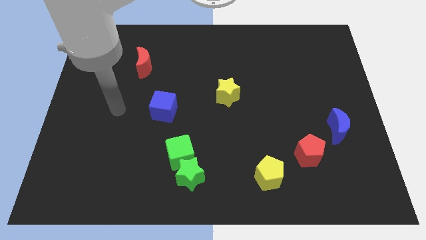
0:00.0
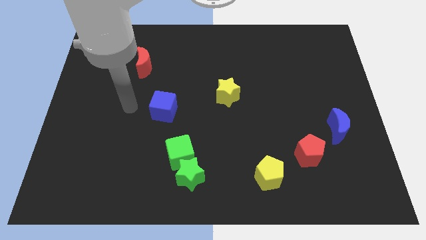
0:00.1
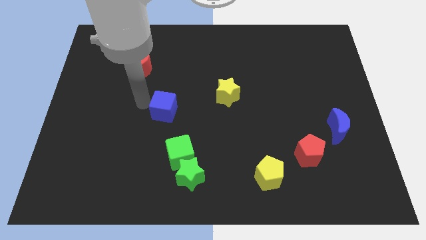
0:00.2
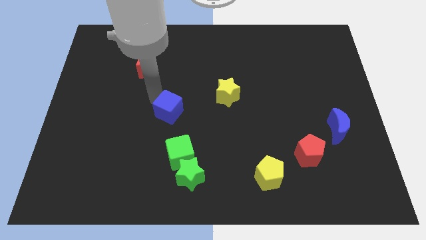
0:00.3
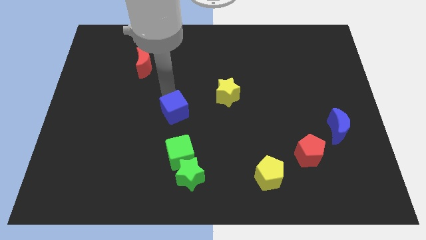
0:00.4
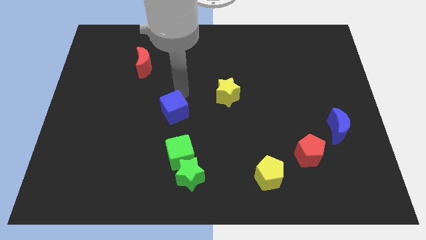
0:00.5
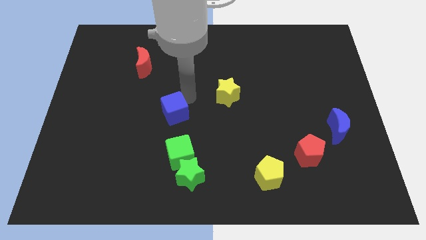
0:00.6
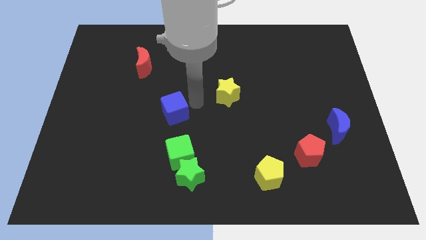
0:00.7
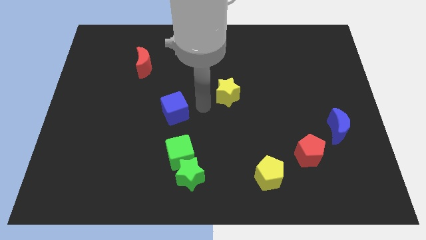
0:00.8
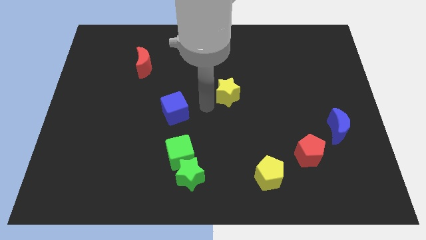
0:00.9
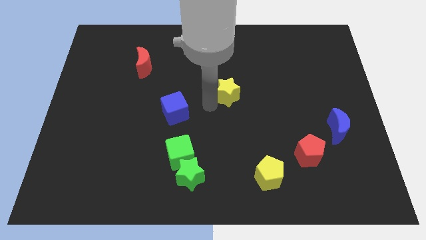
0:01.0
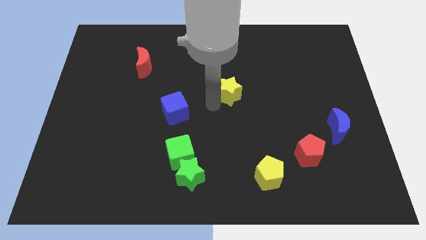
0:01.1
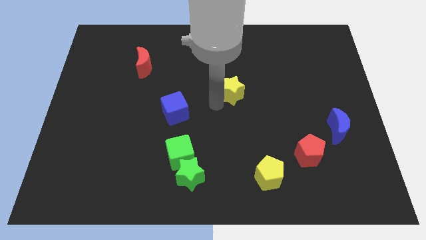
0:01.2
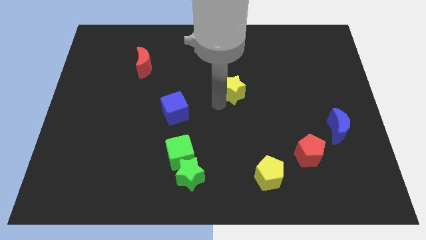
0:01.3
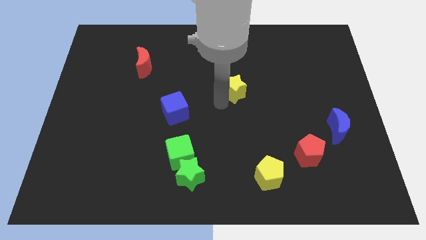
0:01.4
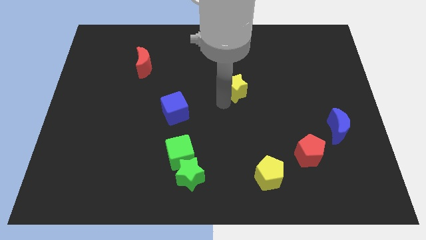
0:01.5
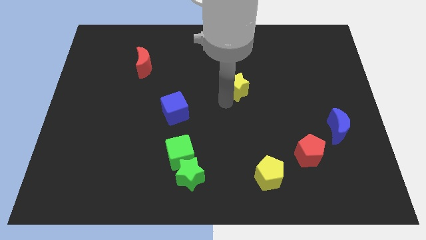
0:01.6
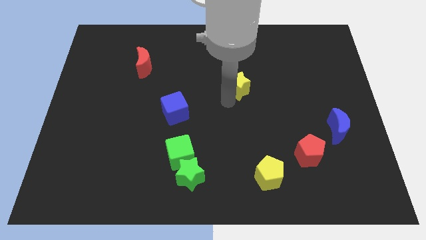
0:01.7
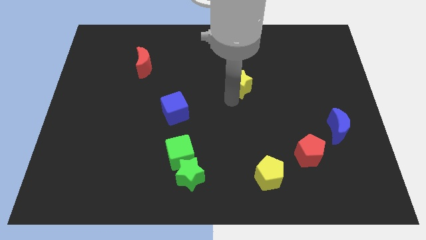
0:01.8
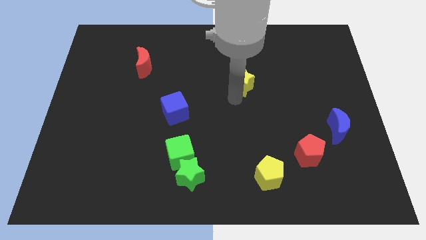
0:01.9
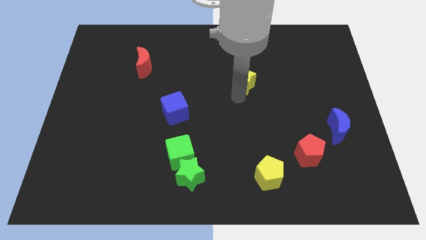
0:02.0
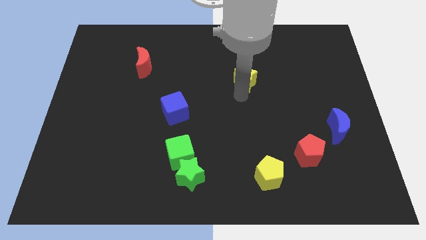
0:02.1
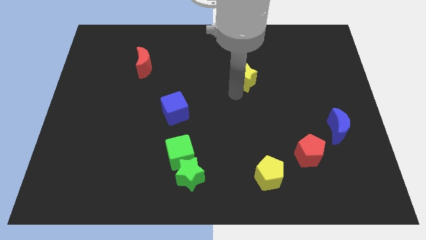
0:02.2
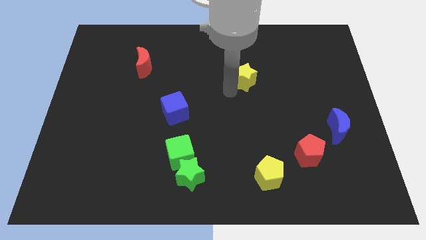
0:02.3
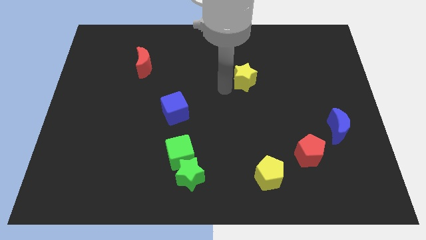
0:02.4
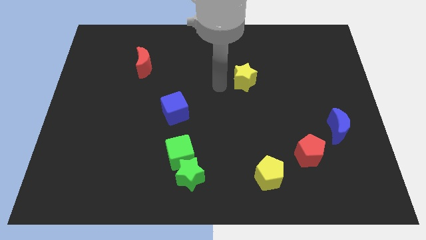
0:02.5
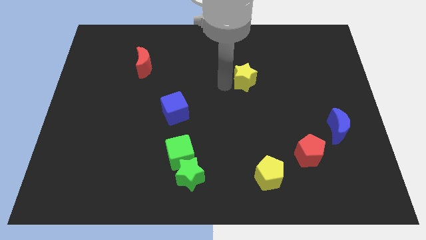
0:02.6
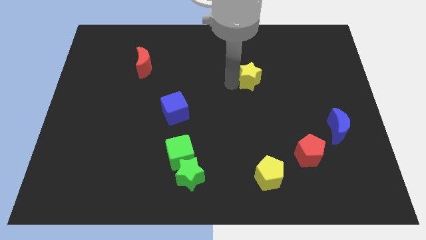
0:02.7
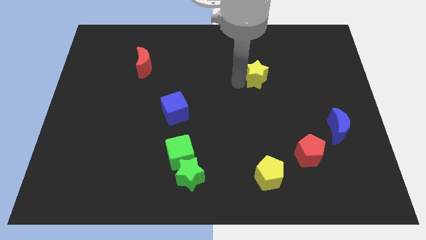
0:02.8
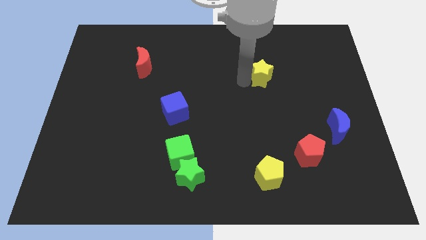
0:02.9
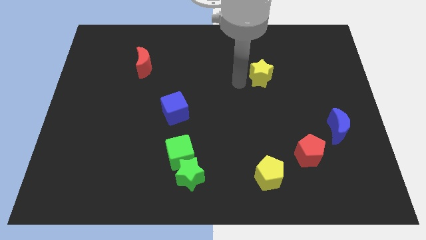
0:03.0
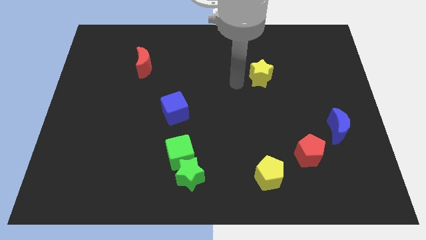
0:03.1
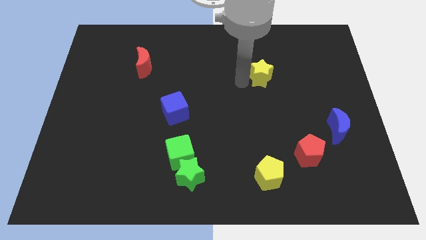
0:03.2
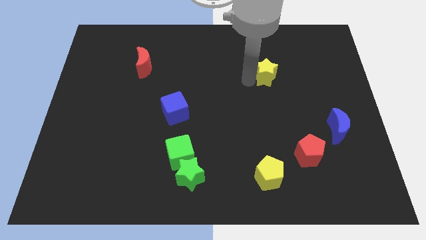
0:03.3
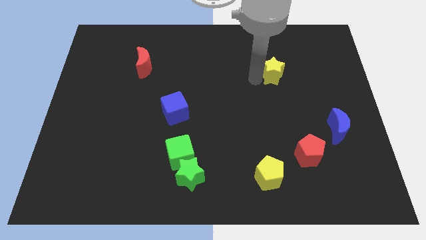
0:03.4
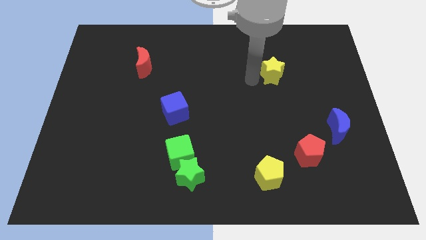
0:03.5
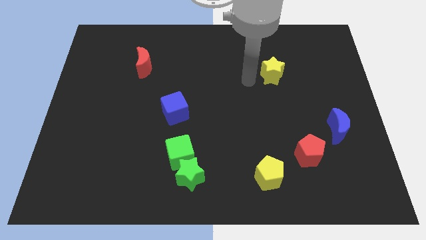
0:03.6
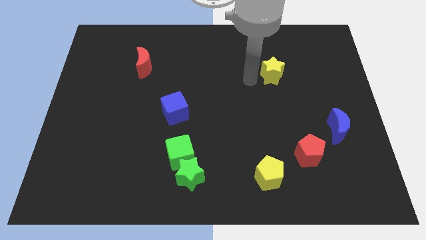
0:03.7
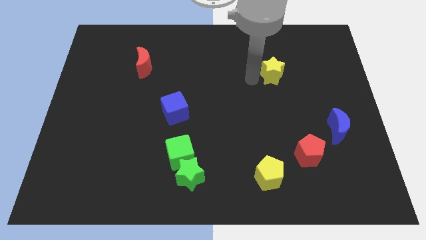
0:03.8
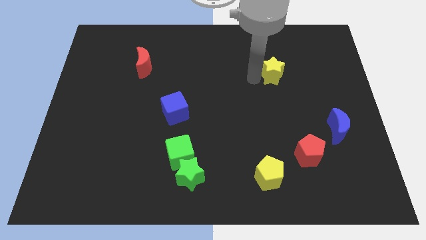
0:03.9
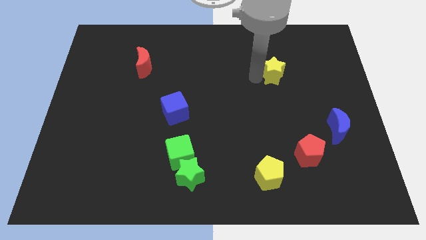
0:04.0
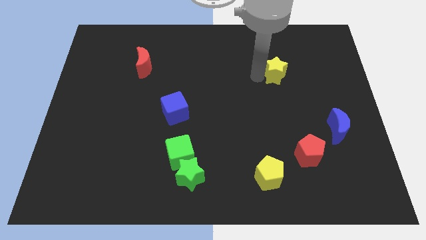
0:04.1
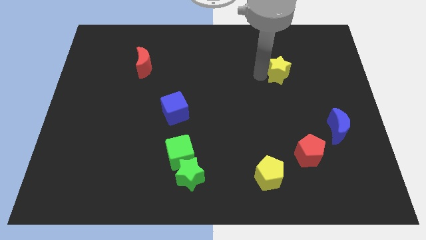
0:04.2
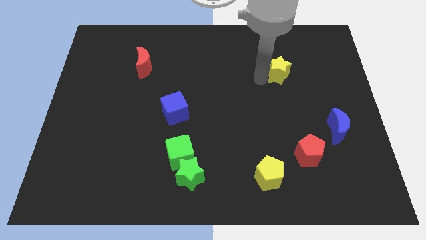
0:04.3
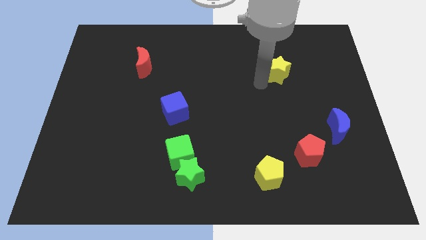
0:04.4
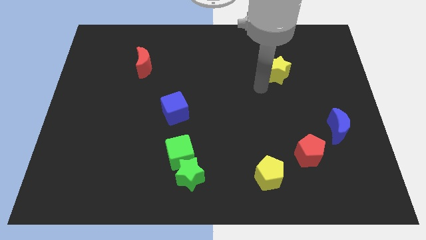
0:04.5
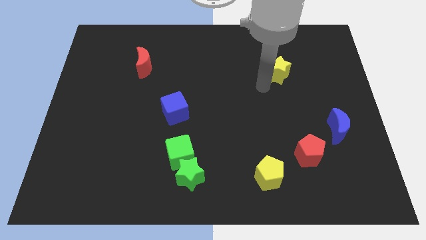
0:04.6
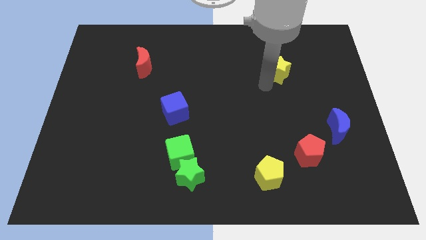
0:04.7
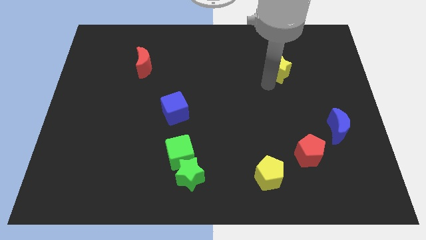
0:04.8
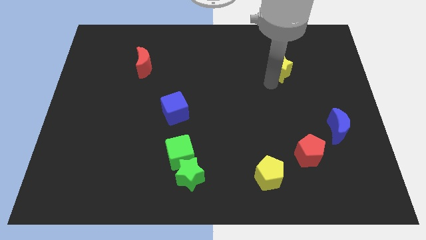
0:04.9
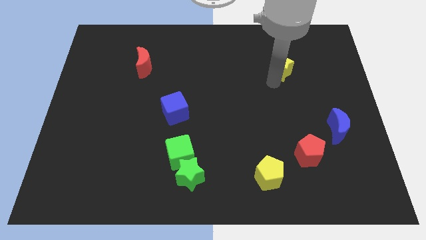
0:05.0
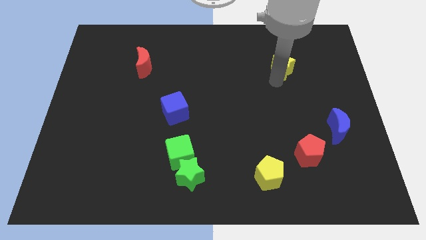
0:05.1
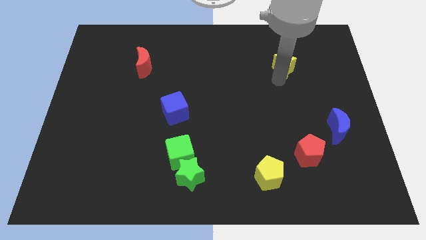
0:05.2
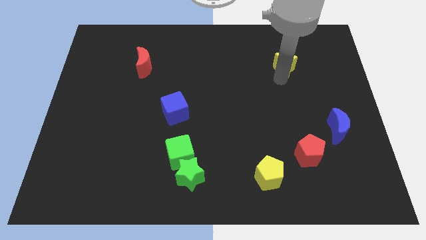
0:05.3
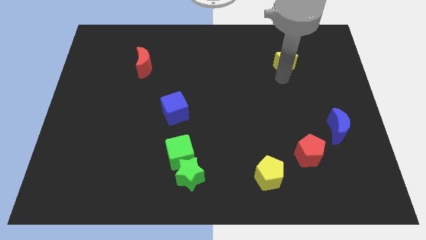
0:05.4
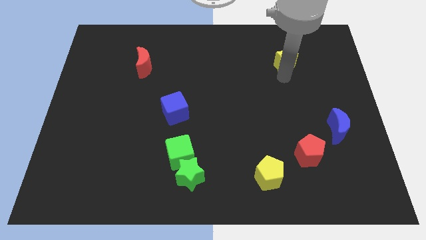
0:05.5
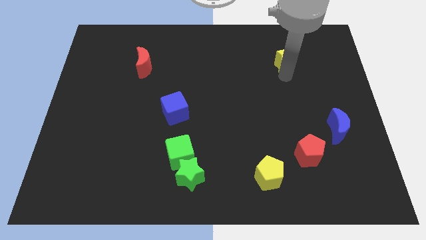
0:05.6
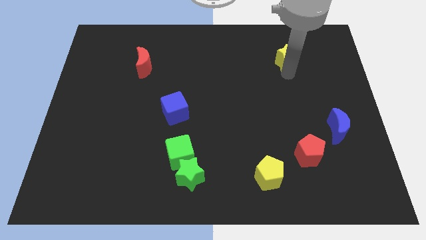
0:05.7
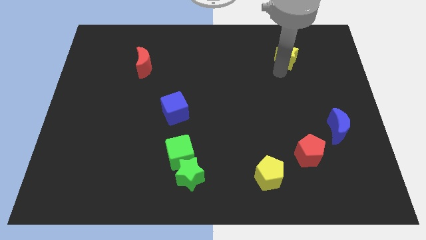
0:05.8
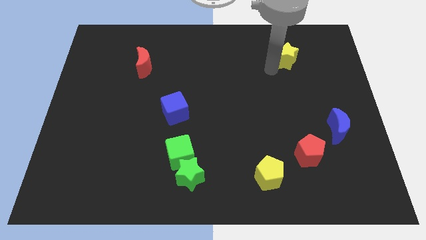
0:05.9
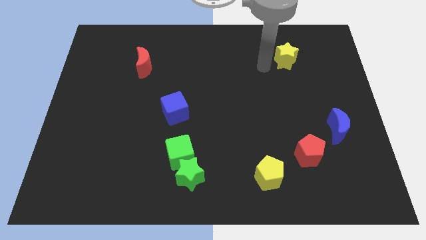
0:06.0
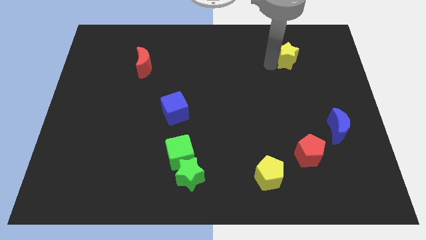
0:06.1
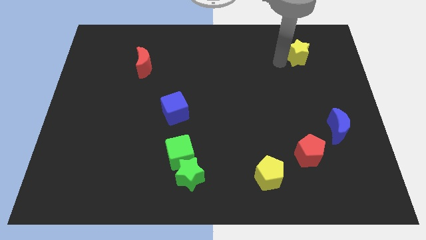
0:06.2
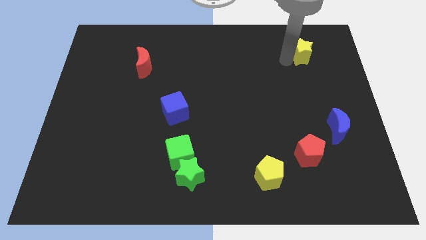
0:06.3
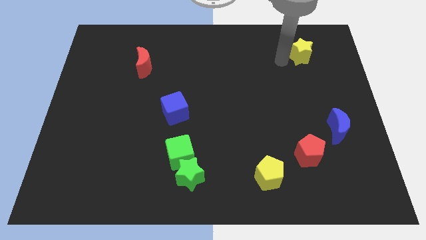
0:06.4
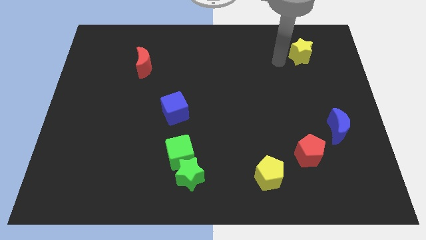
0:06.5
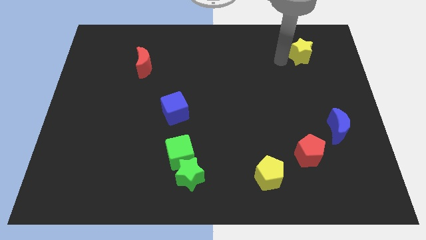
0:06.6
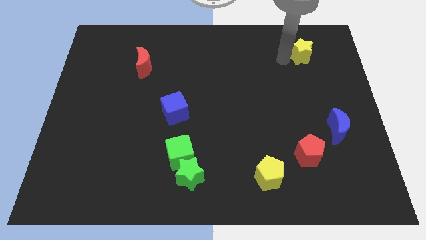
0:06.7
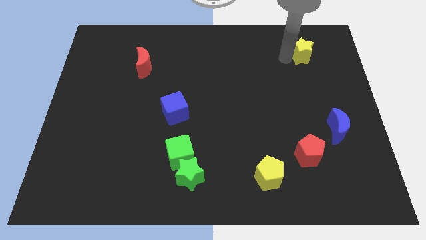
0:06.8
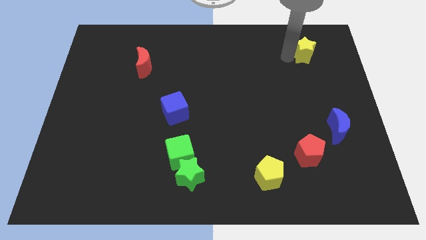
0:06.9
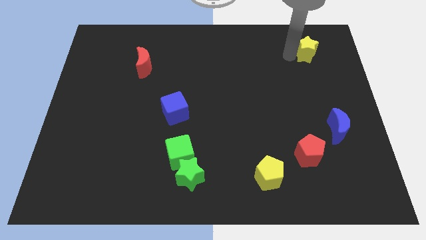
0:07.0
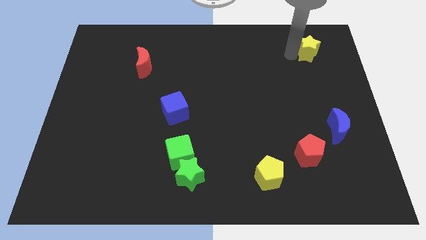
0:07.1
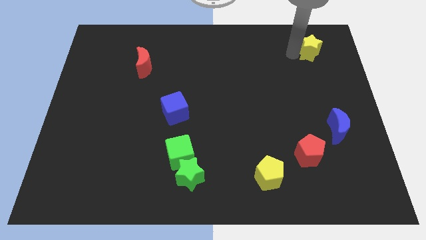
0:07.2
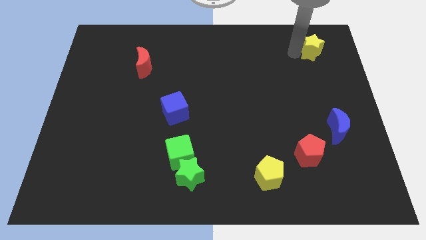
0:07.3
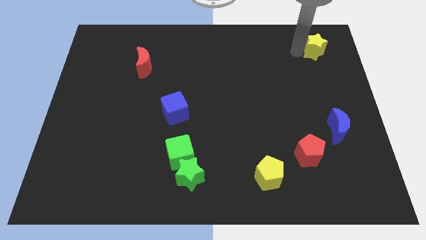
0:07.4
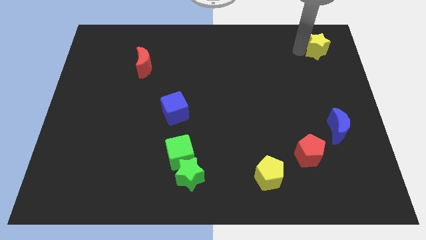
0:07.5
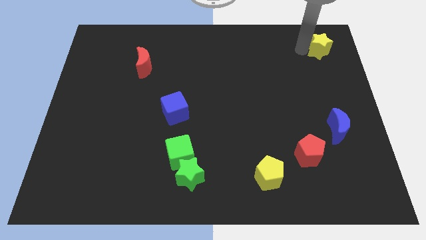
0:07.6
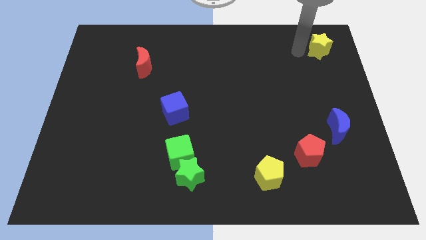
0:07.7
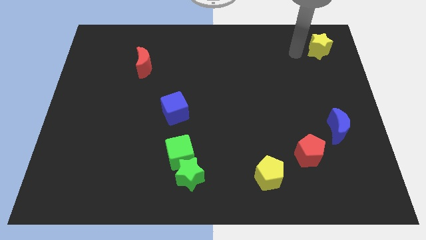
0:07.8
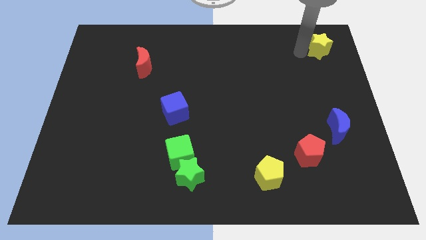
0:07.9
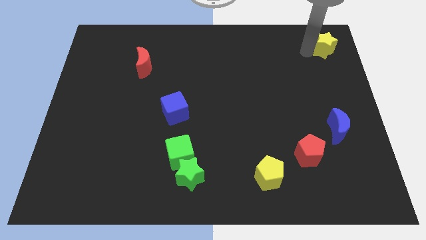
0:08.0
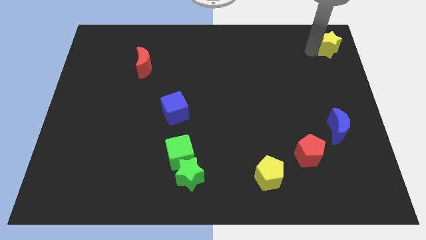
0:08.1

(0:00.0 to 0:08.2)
slide the yellow star to the top right
